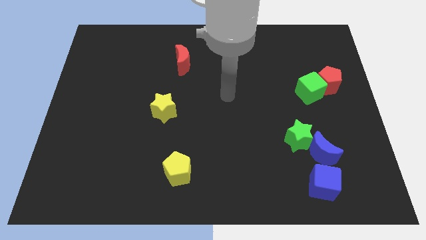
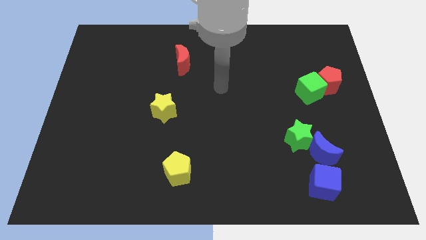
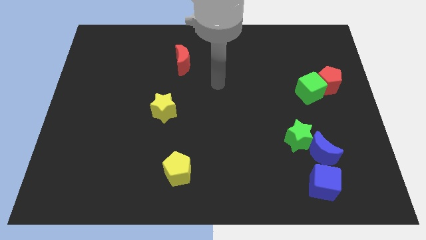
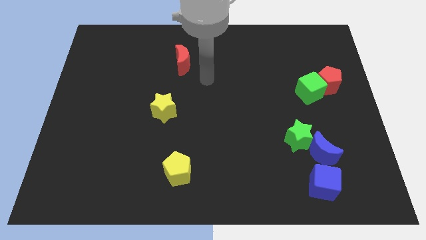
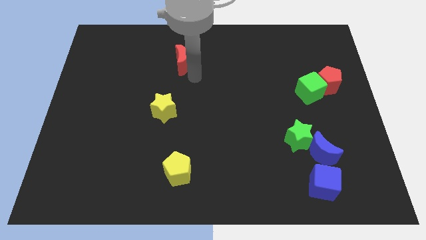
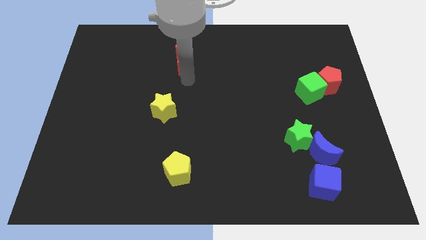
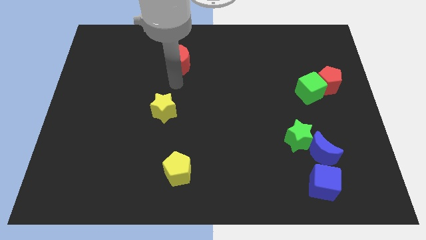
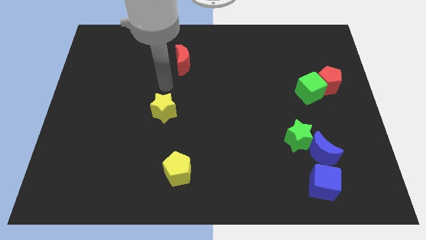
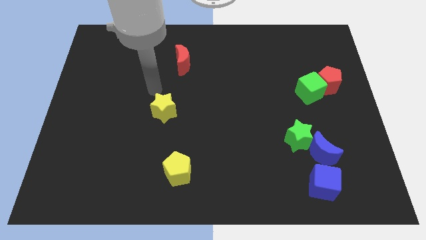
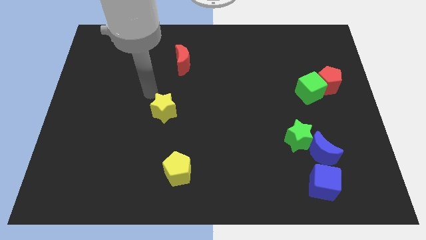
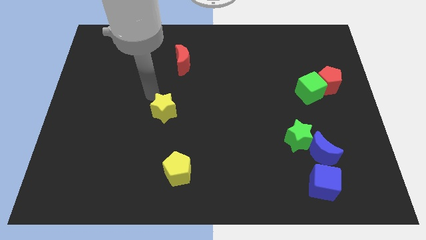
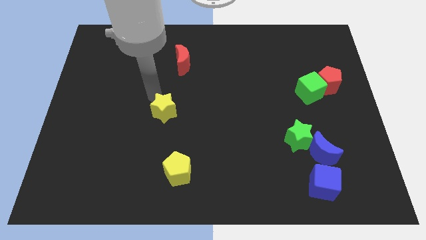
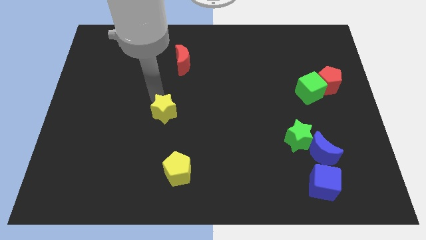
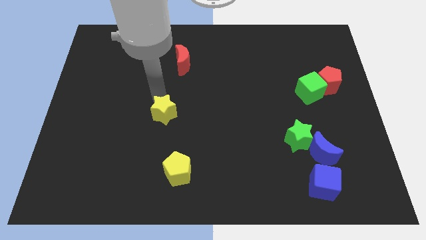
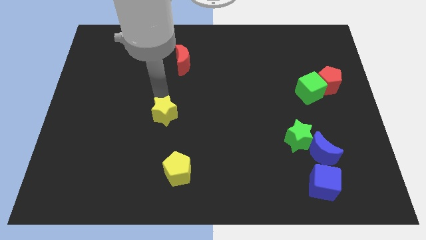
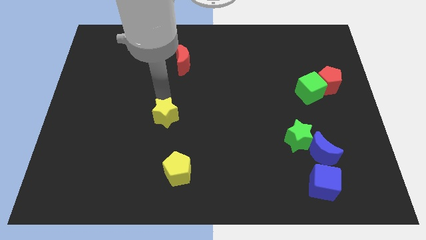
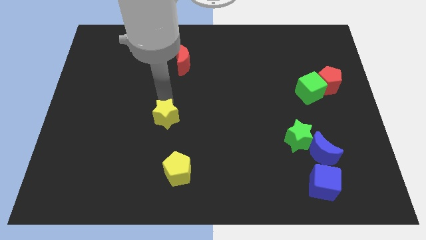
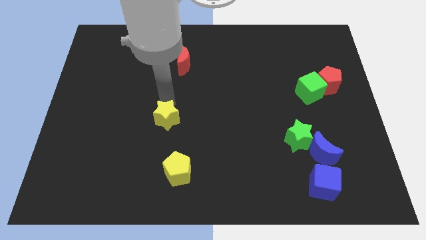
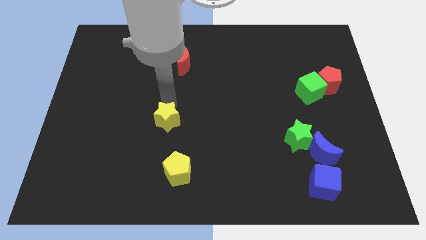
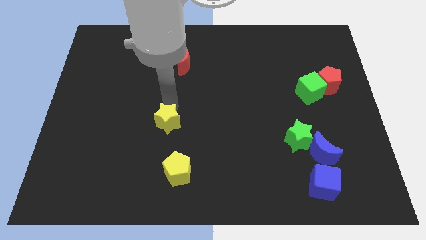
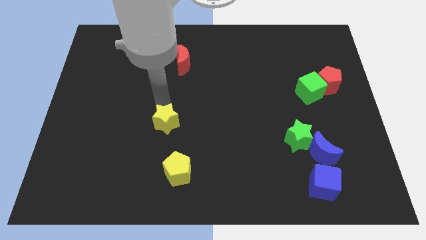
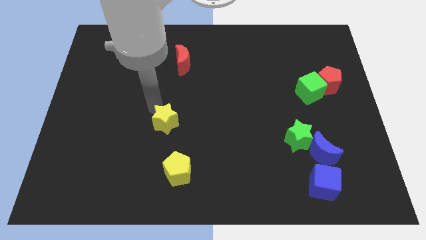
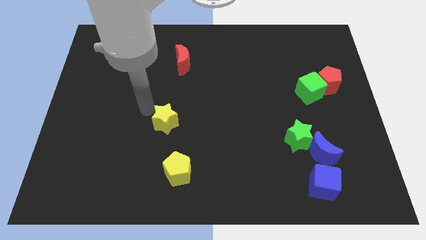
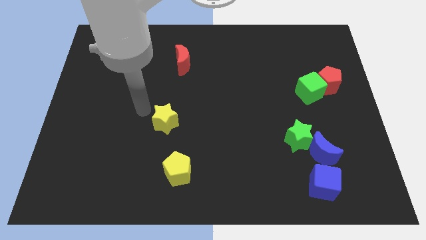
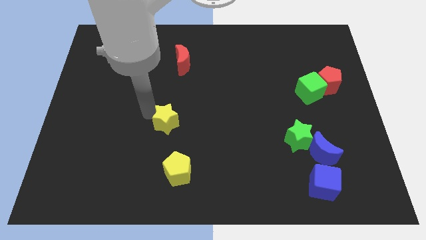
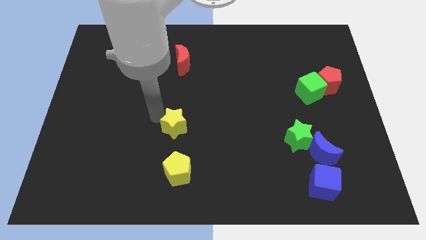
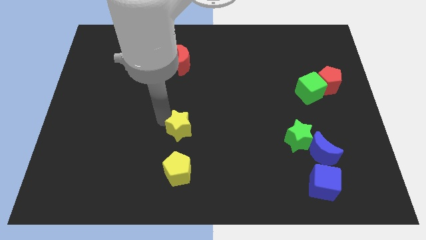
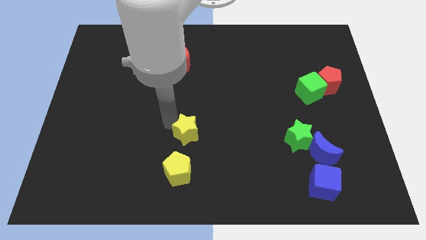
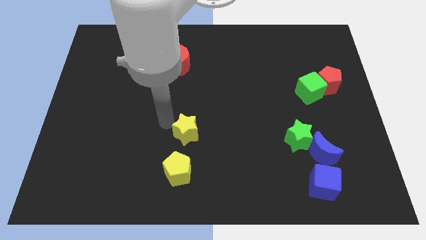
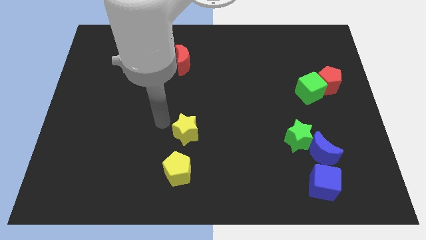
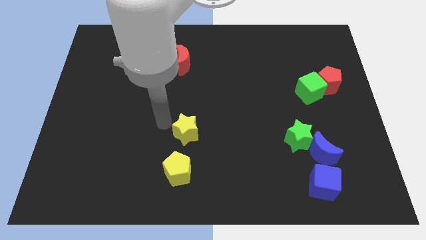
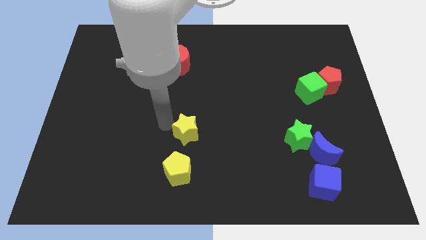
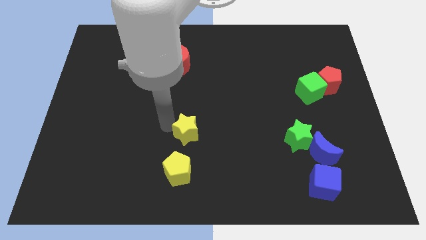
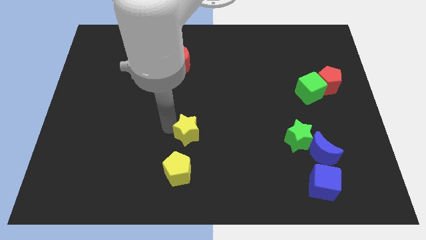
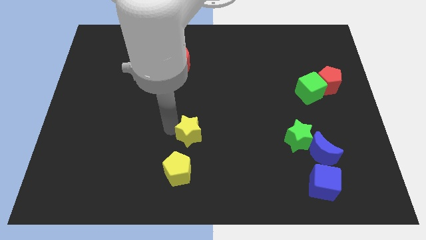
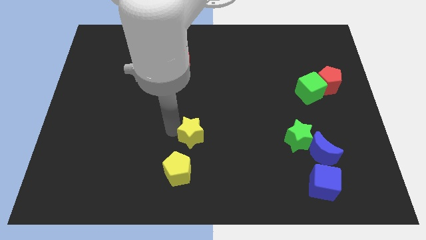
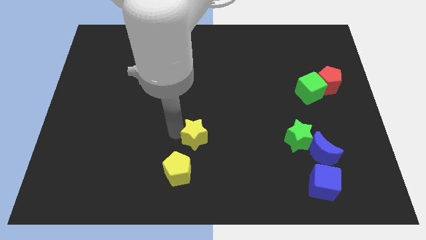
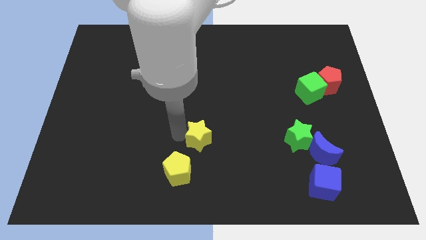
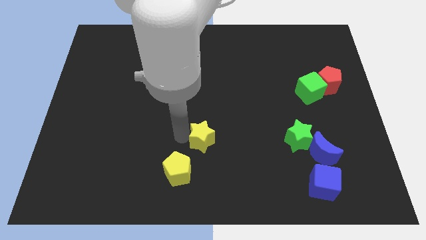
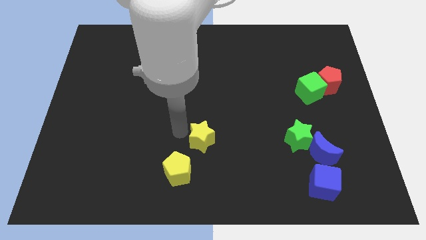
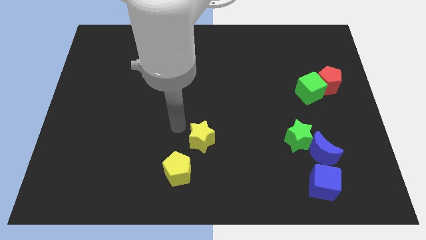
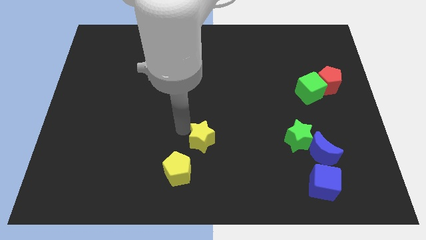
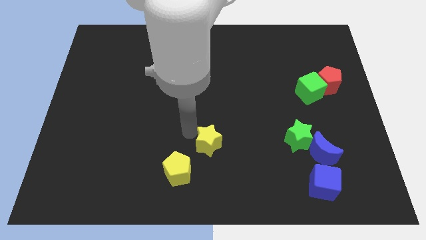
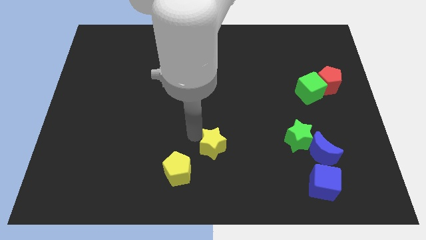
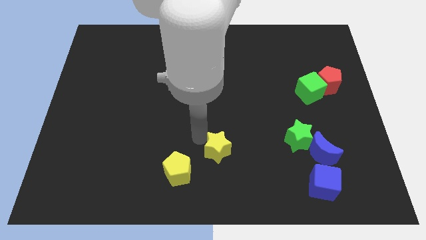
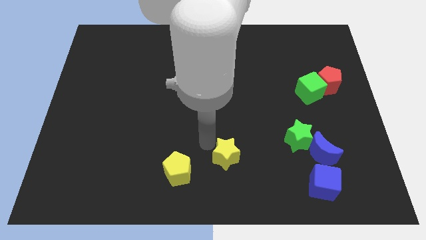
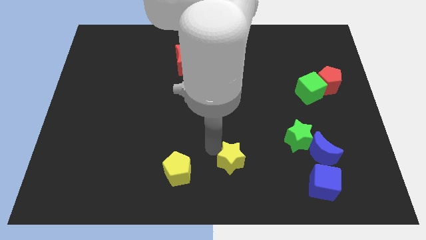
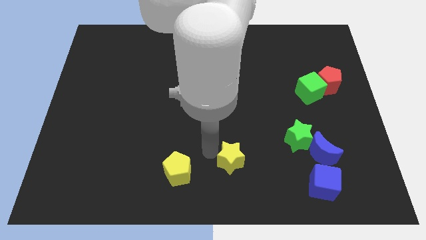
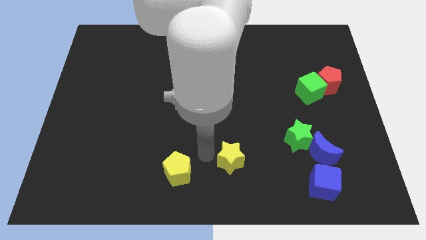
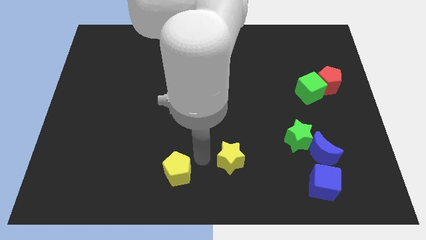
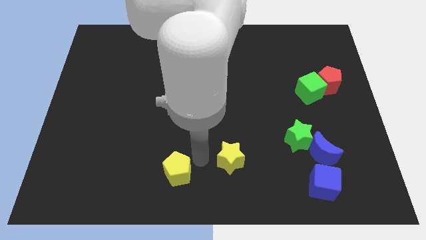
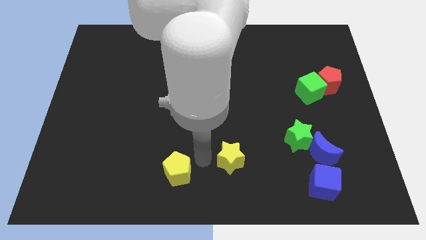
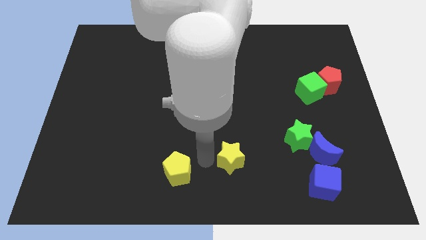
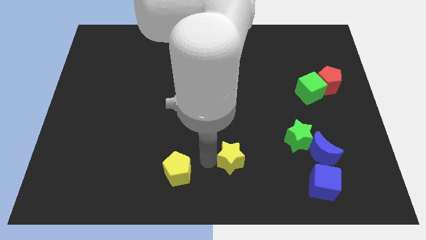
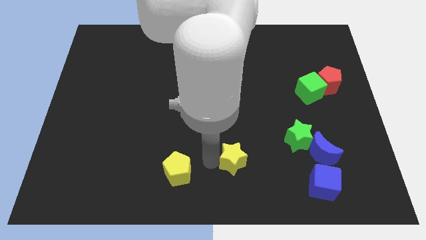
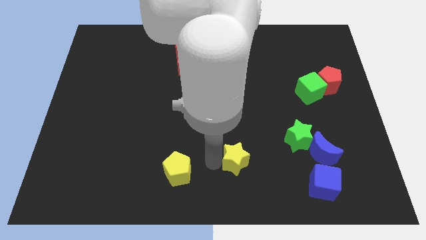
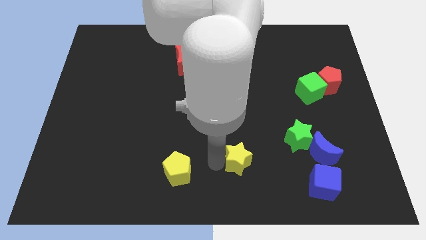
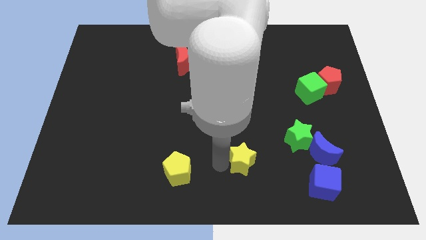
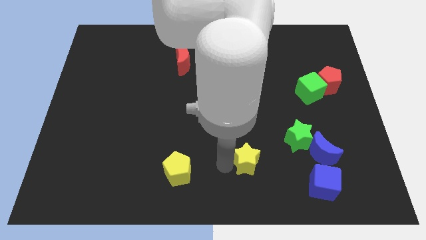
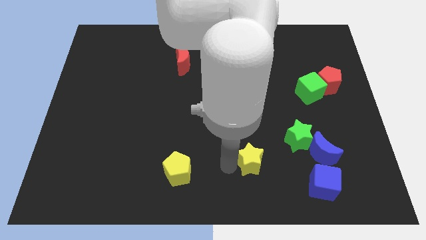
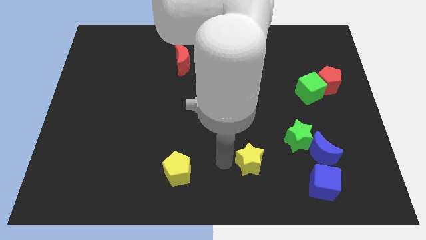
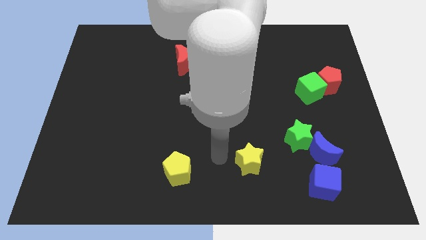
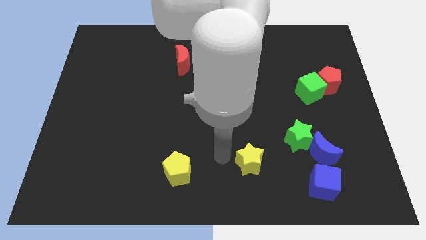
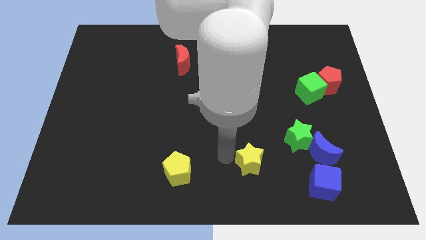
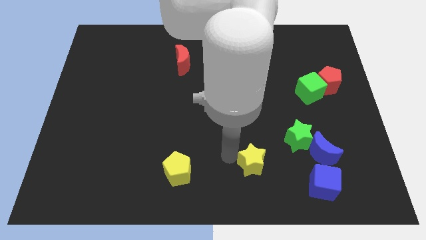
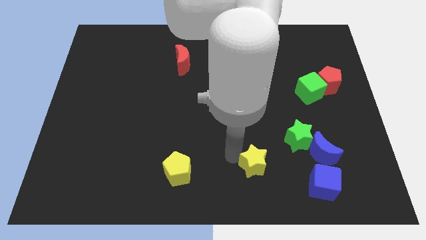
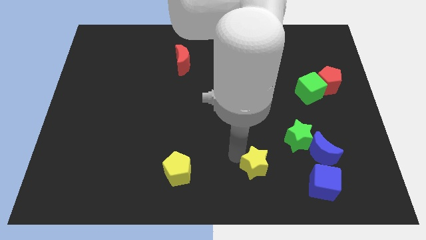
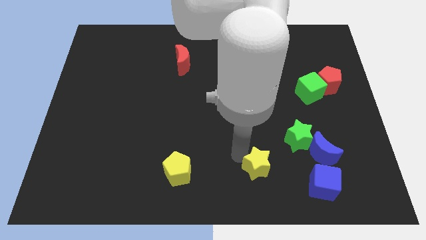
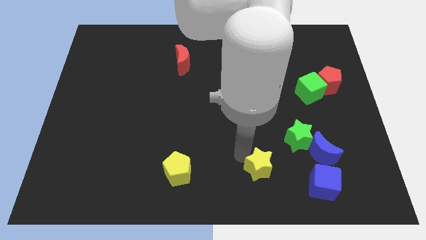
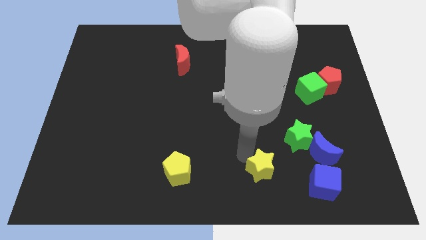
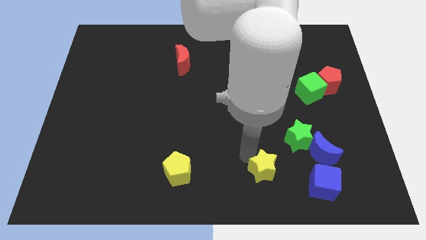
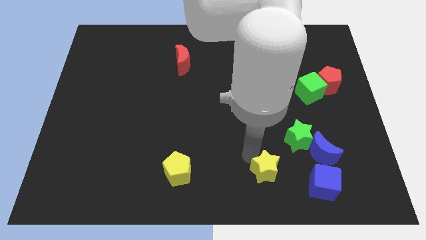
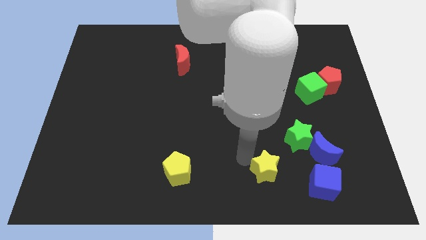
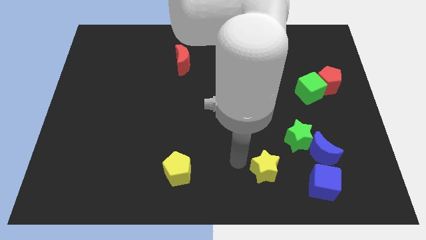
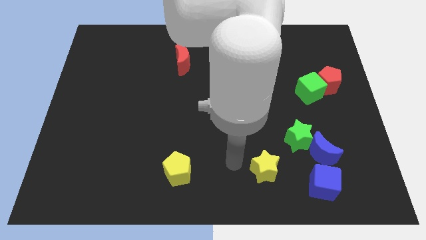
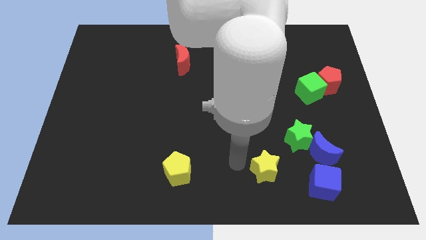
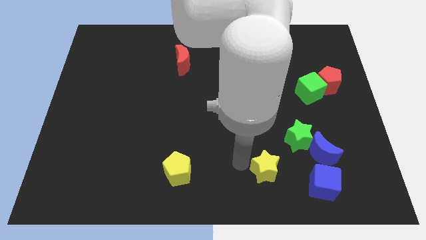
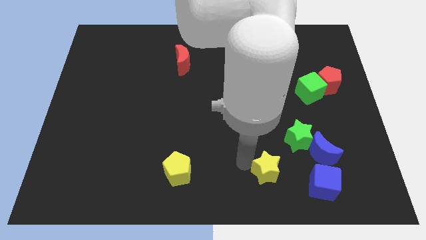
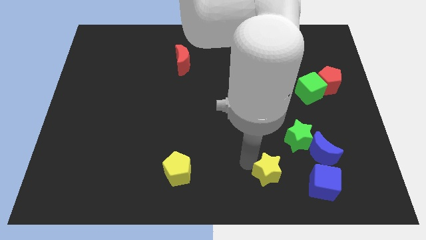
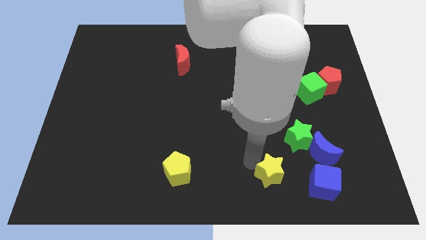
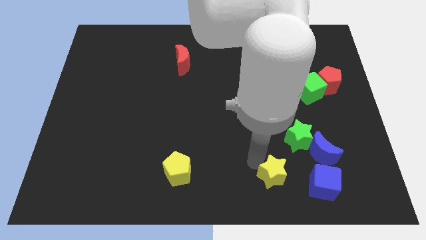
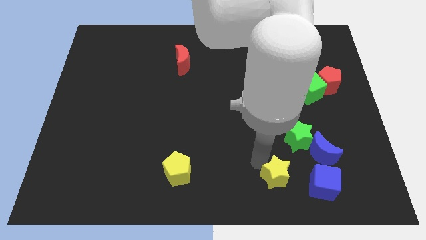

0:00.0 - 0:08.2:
push the yellow star diagonally down and to the left of the blue moon
